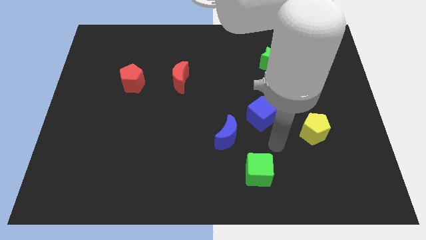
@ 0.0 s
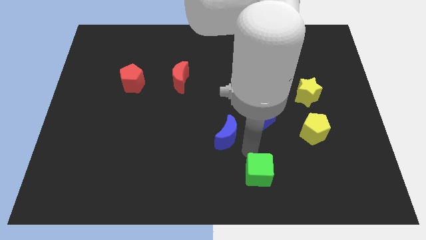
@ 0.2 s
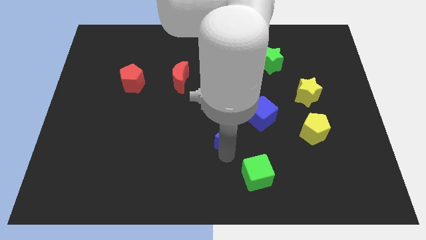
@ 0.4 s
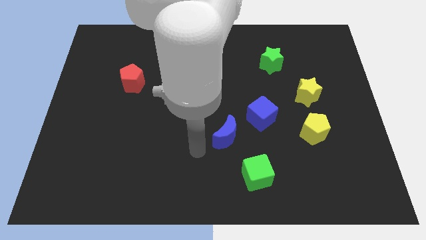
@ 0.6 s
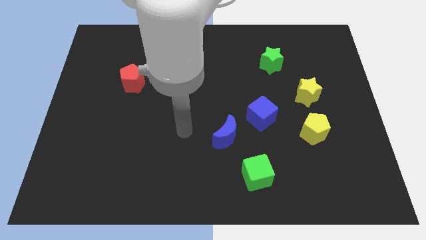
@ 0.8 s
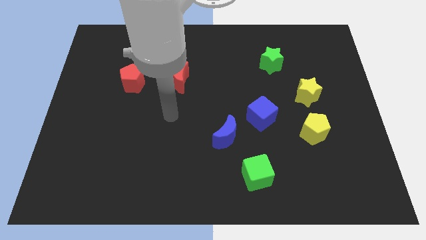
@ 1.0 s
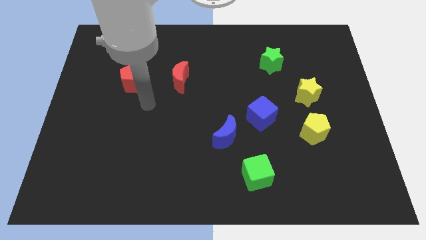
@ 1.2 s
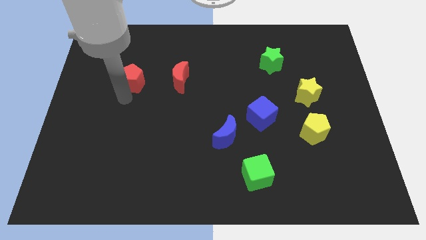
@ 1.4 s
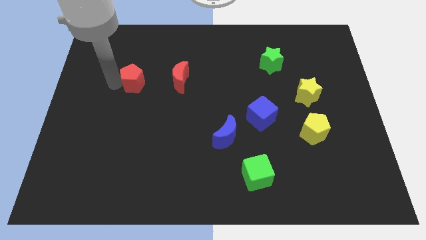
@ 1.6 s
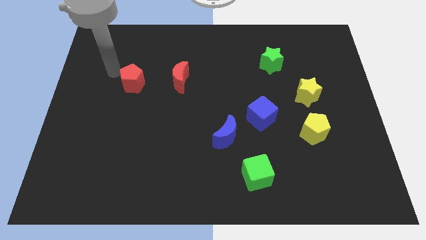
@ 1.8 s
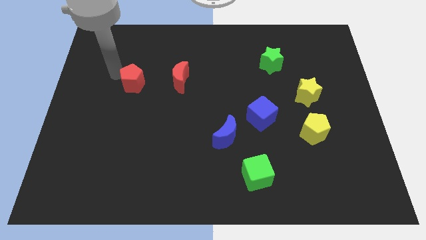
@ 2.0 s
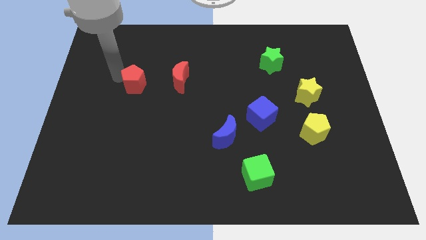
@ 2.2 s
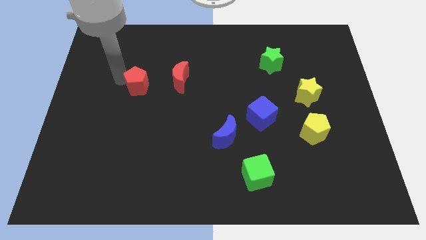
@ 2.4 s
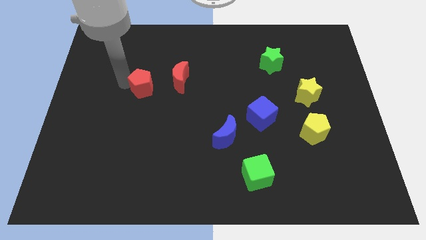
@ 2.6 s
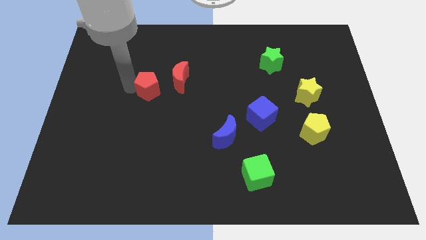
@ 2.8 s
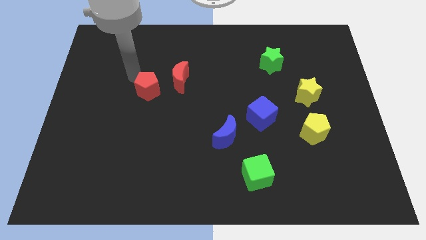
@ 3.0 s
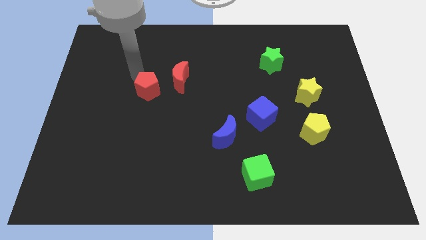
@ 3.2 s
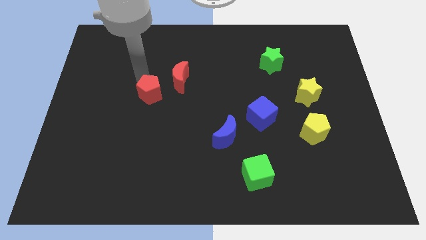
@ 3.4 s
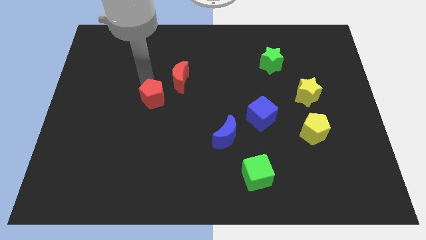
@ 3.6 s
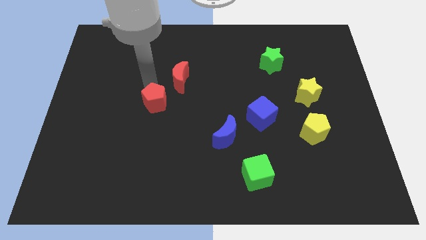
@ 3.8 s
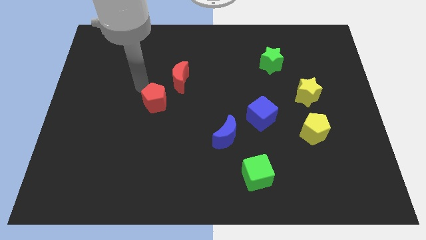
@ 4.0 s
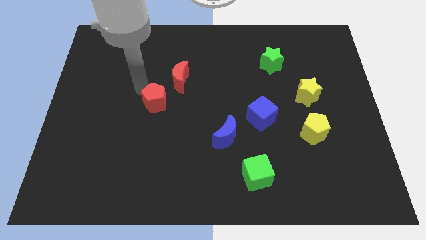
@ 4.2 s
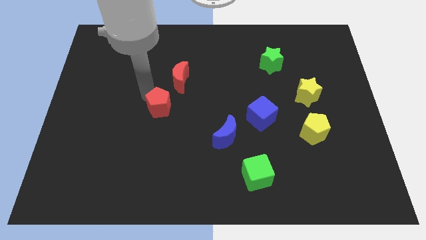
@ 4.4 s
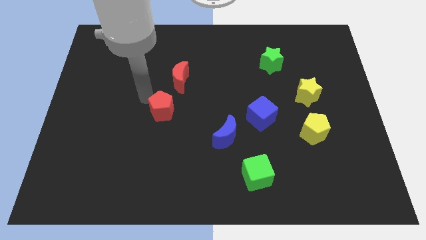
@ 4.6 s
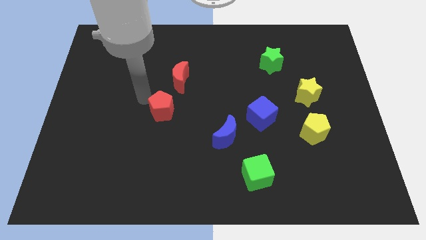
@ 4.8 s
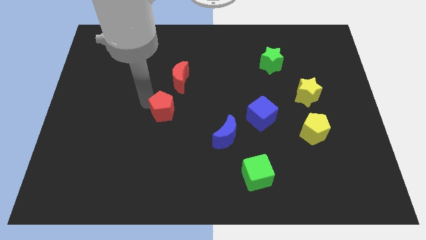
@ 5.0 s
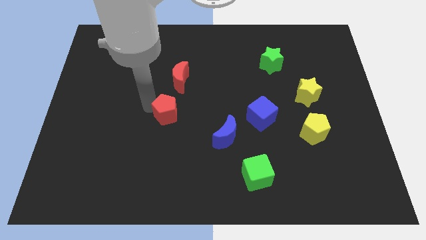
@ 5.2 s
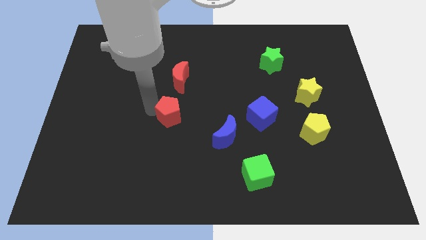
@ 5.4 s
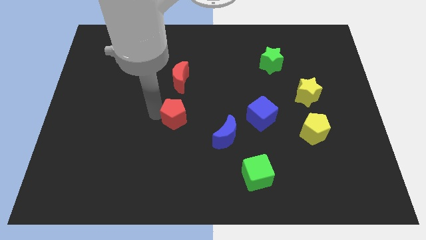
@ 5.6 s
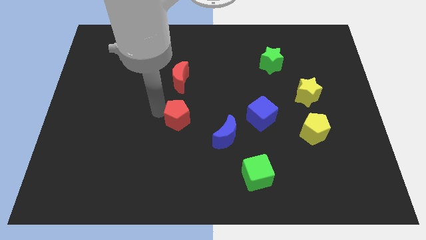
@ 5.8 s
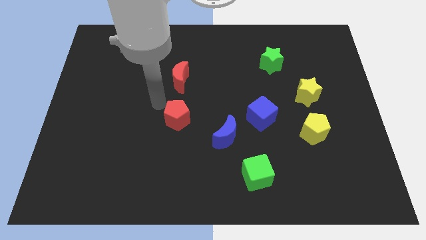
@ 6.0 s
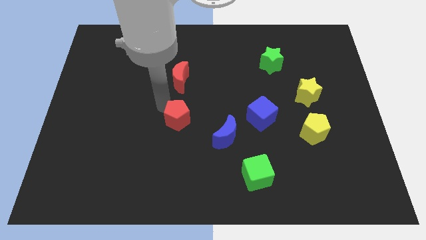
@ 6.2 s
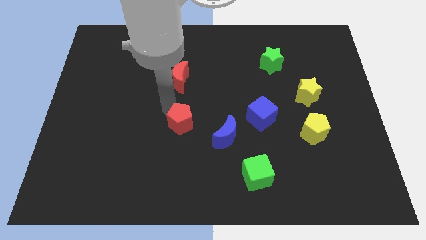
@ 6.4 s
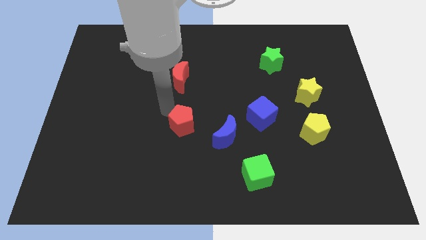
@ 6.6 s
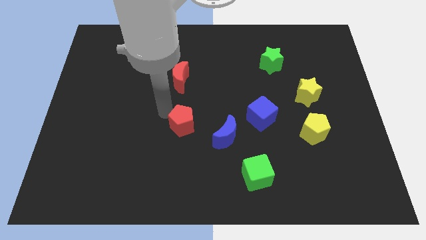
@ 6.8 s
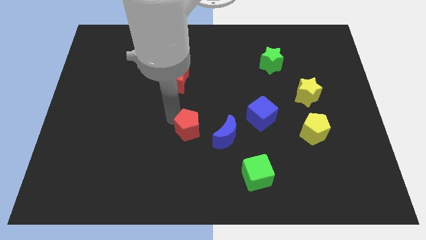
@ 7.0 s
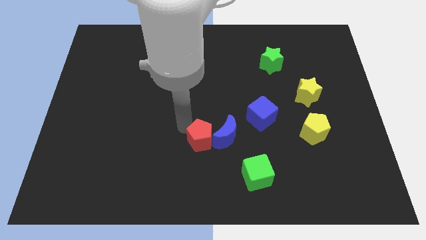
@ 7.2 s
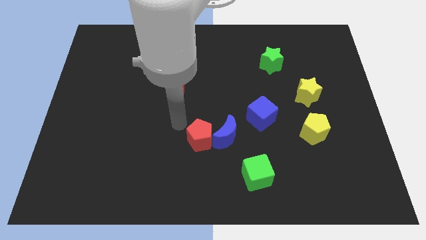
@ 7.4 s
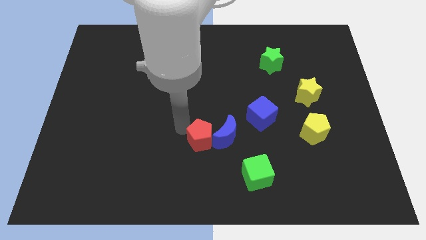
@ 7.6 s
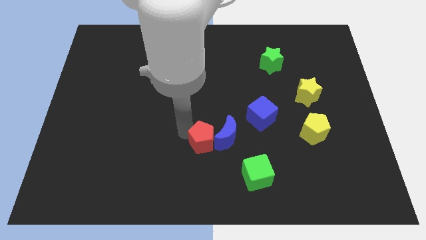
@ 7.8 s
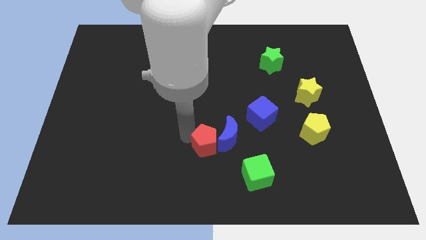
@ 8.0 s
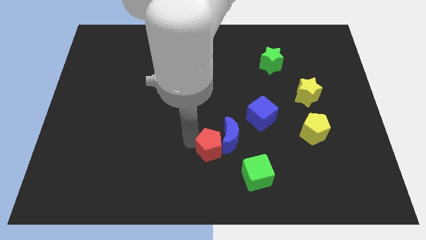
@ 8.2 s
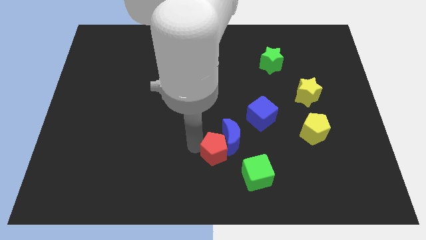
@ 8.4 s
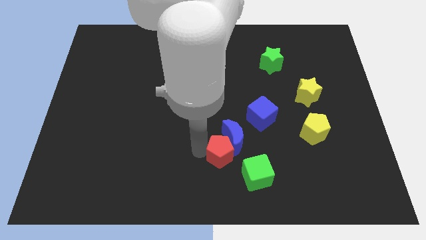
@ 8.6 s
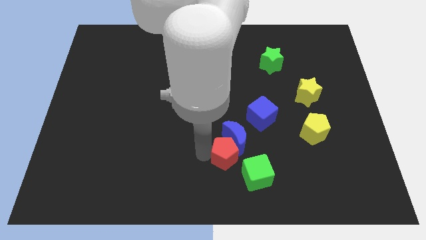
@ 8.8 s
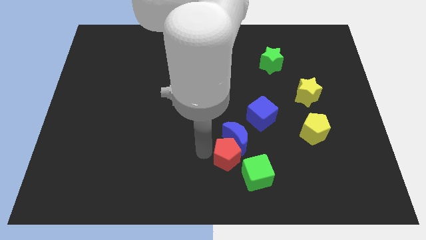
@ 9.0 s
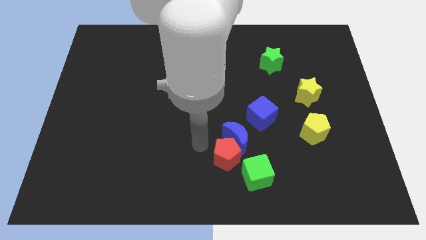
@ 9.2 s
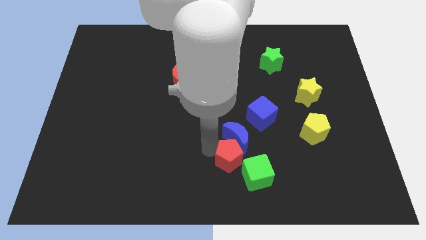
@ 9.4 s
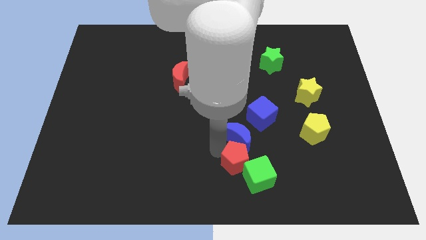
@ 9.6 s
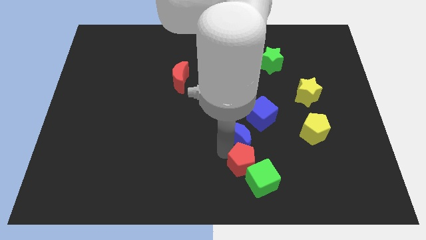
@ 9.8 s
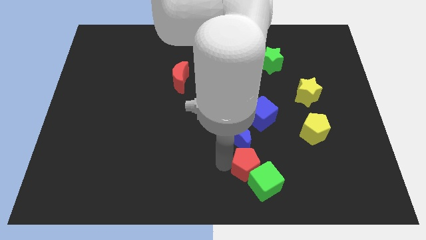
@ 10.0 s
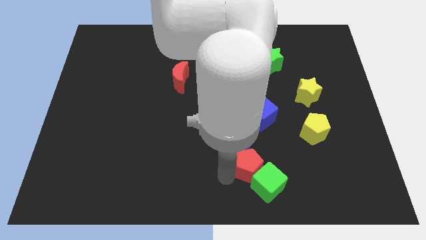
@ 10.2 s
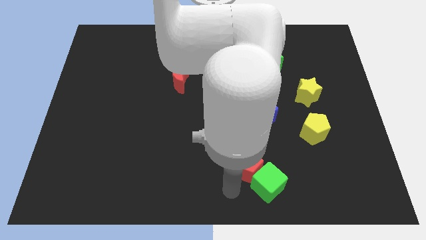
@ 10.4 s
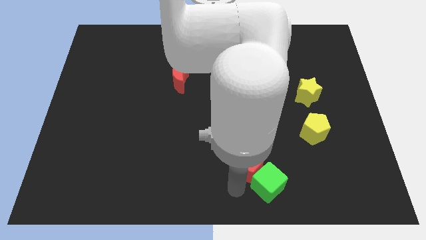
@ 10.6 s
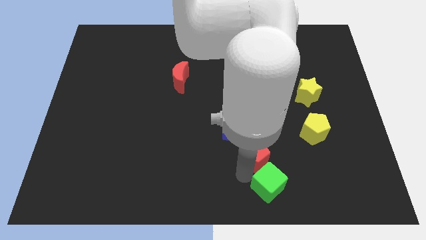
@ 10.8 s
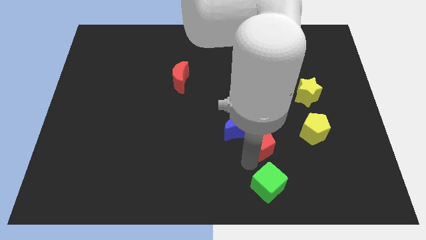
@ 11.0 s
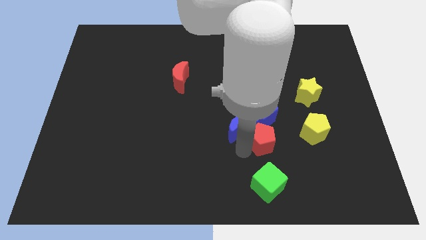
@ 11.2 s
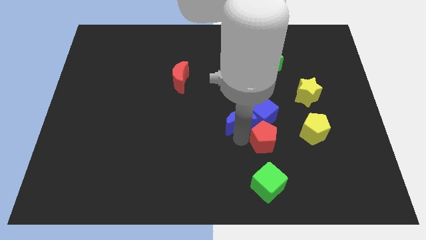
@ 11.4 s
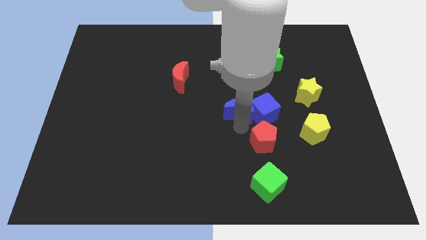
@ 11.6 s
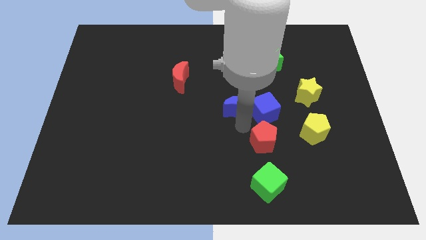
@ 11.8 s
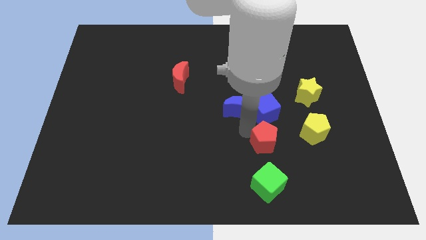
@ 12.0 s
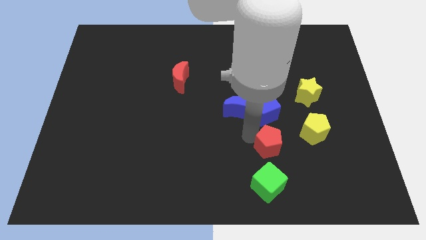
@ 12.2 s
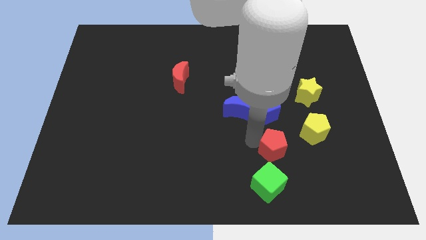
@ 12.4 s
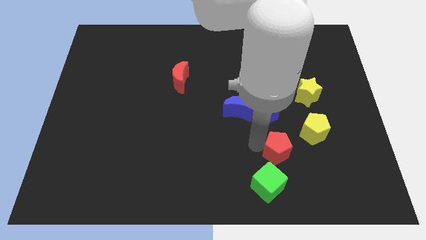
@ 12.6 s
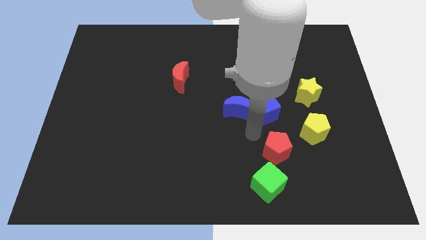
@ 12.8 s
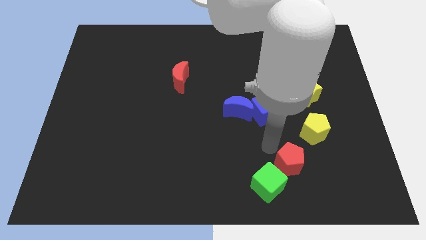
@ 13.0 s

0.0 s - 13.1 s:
move the red pentagon to the right of the green cube
